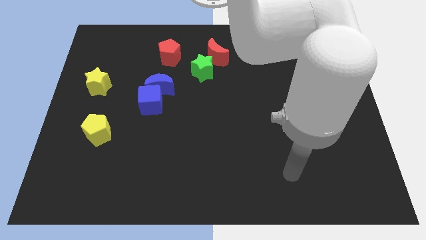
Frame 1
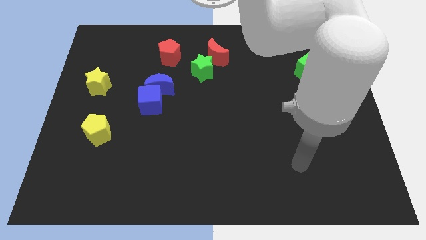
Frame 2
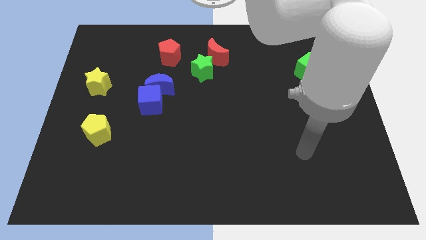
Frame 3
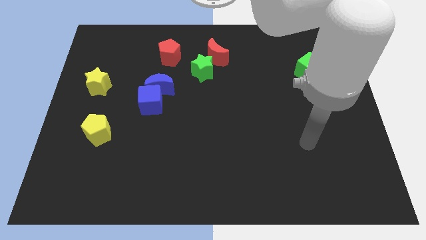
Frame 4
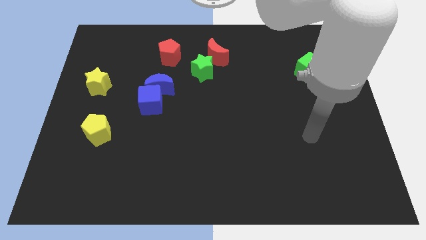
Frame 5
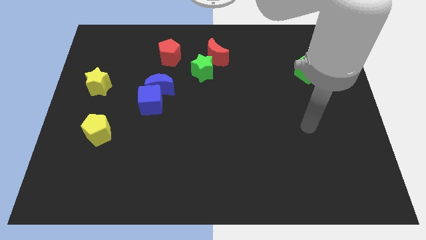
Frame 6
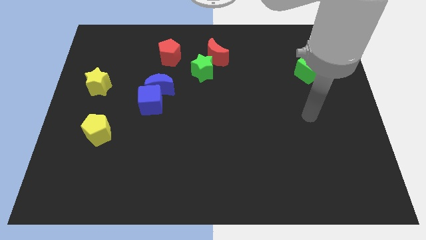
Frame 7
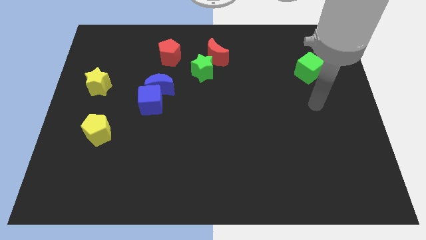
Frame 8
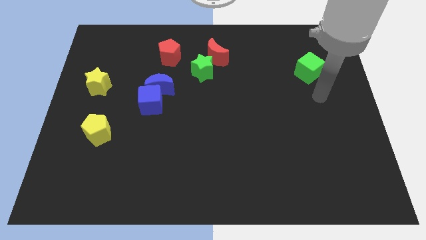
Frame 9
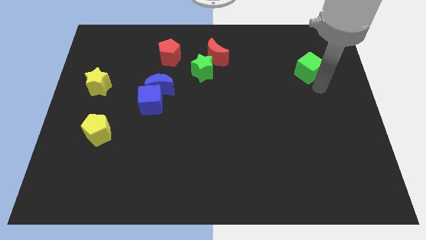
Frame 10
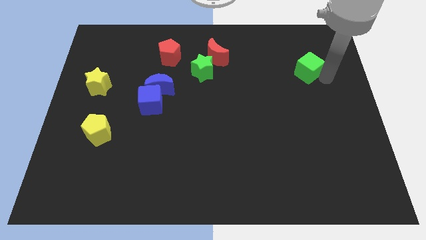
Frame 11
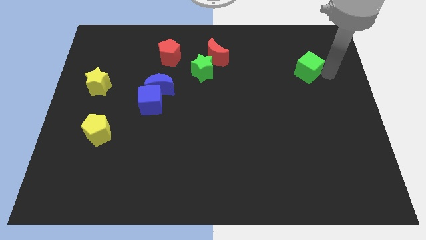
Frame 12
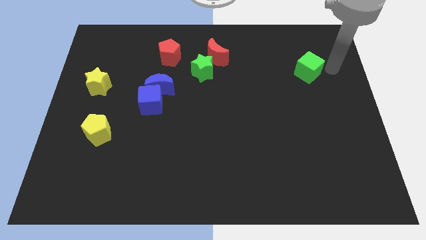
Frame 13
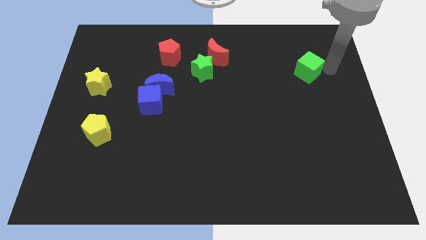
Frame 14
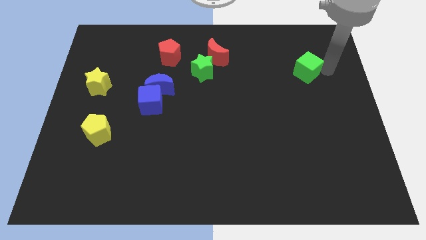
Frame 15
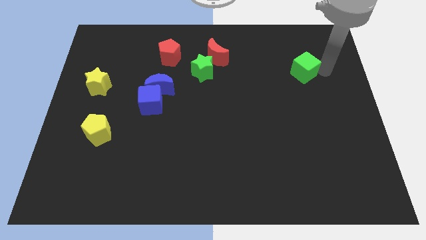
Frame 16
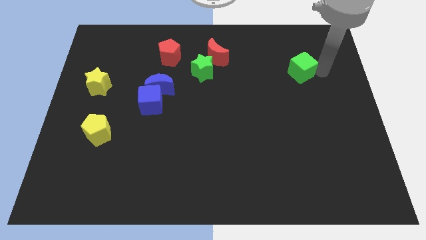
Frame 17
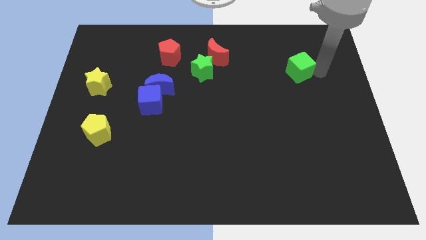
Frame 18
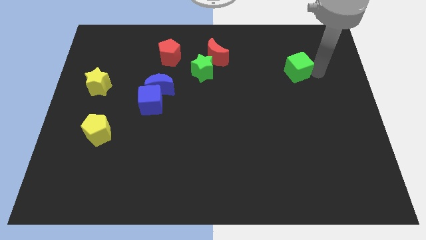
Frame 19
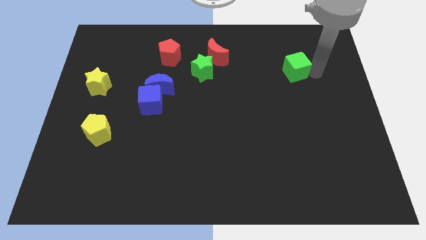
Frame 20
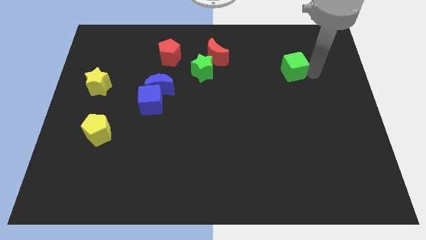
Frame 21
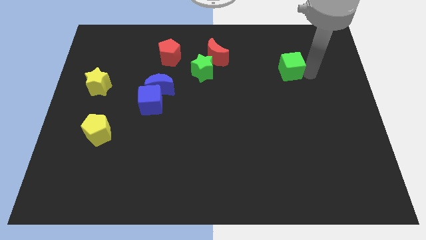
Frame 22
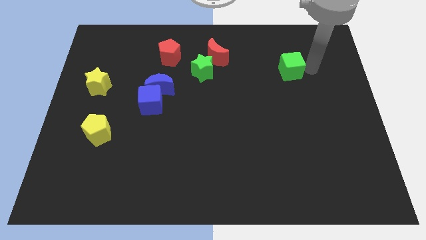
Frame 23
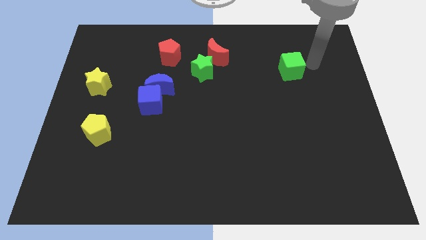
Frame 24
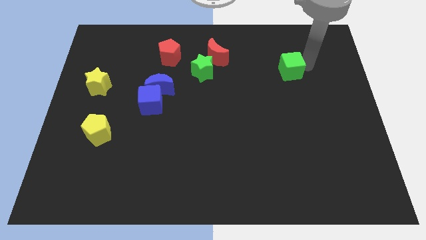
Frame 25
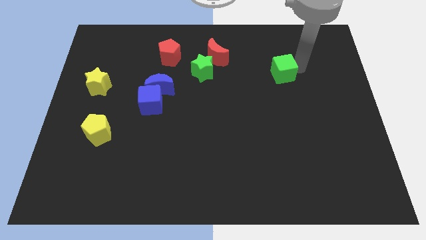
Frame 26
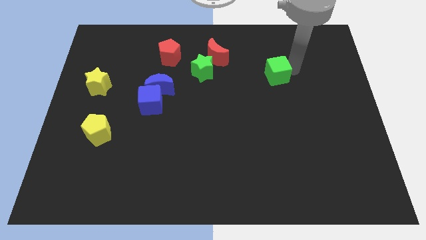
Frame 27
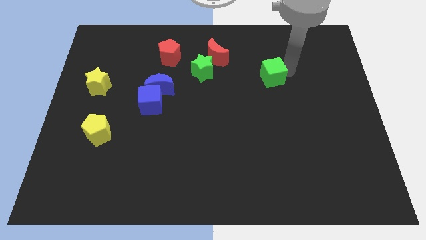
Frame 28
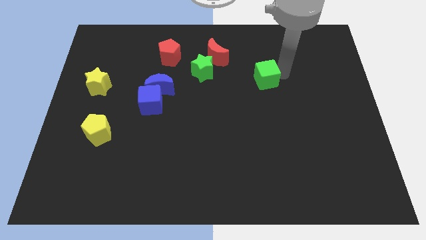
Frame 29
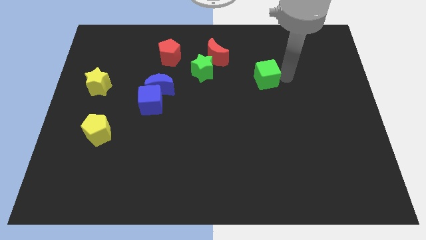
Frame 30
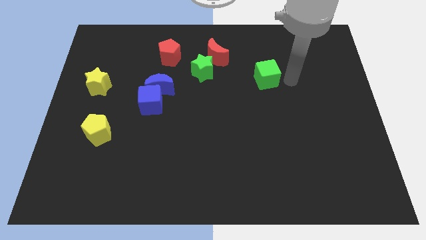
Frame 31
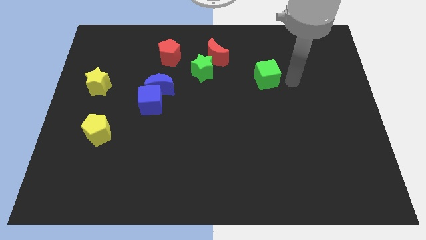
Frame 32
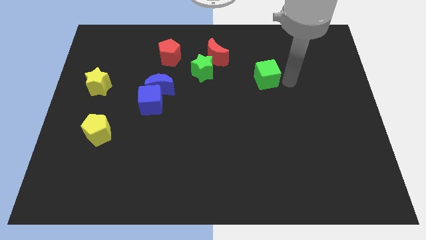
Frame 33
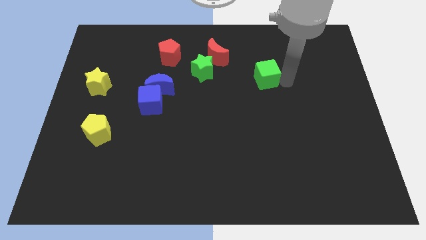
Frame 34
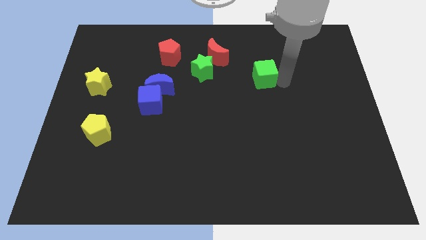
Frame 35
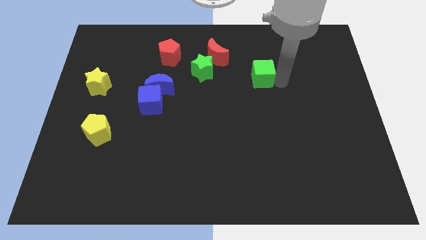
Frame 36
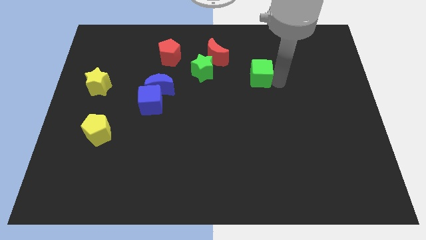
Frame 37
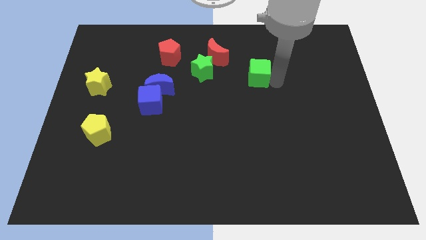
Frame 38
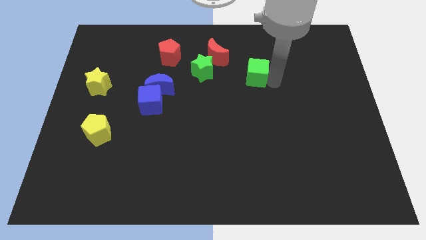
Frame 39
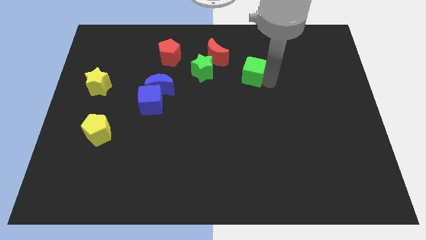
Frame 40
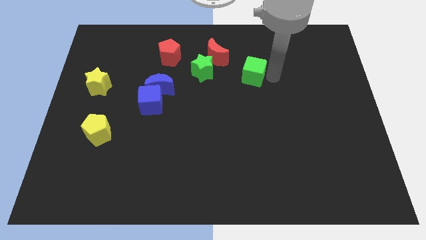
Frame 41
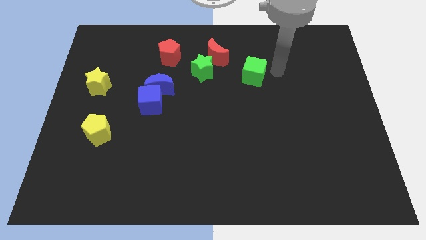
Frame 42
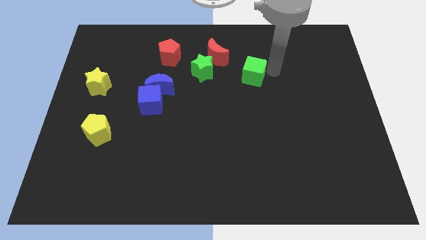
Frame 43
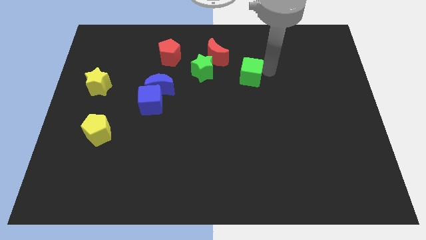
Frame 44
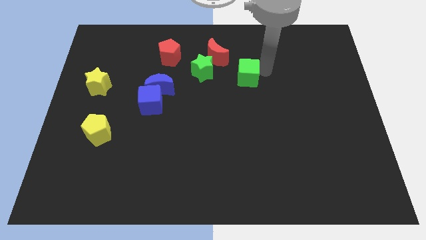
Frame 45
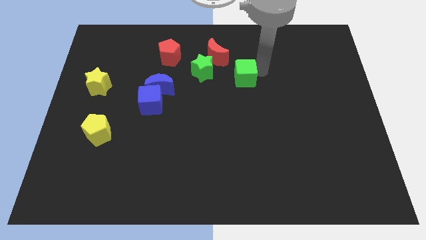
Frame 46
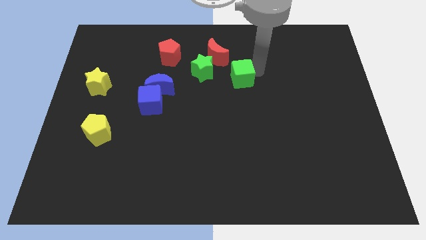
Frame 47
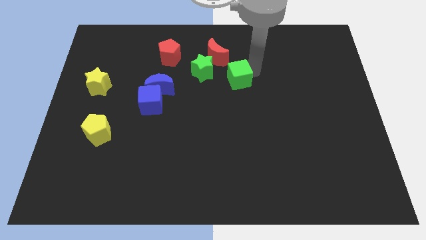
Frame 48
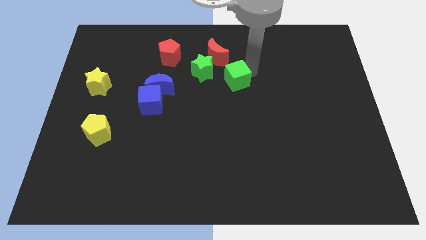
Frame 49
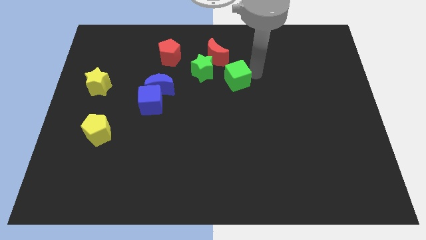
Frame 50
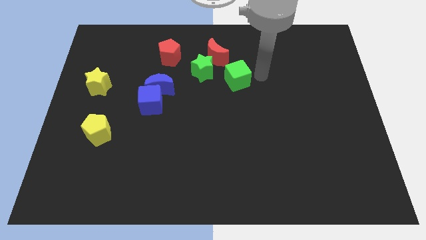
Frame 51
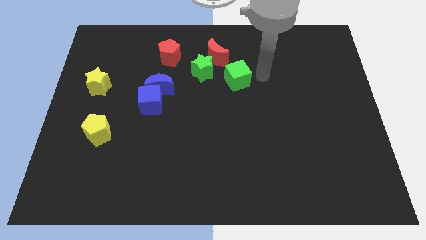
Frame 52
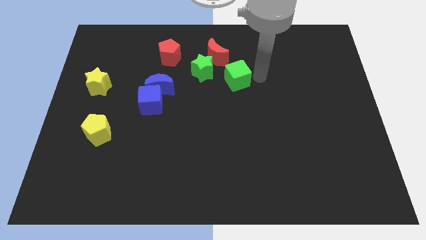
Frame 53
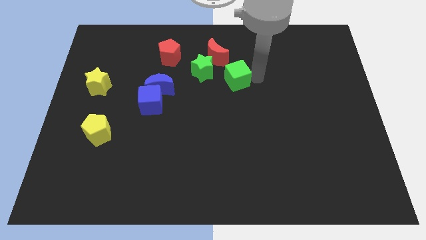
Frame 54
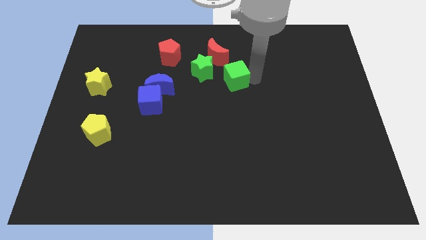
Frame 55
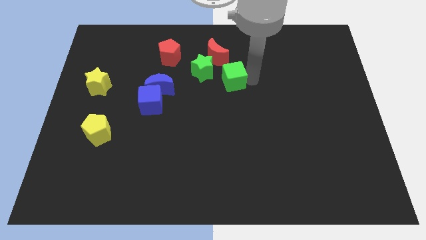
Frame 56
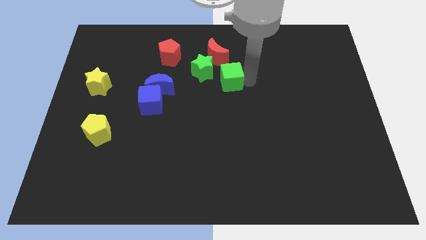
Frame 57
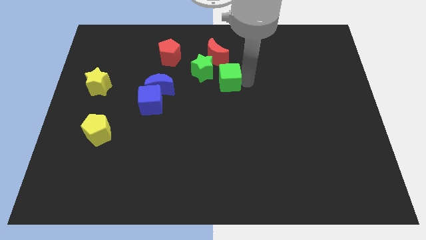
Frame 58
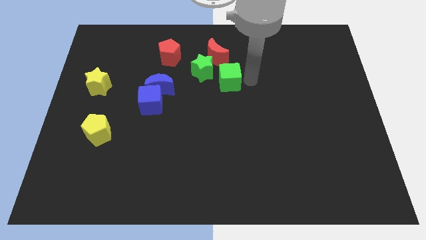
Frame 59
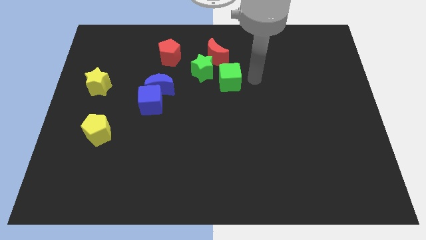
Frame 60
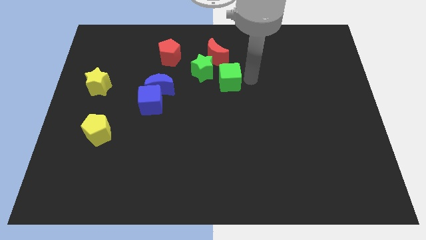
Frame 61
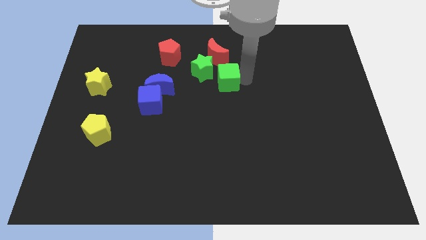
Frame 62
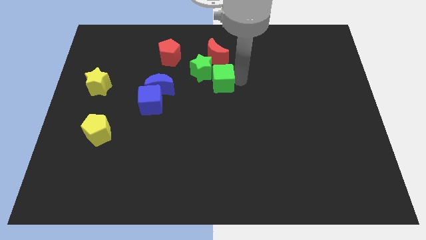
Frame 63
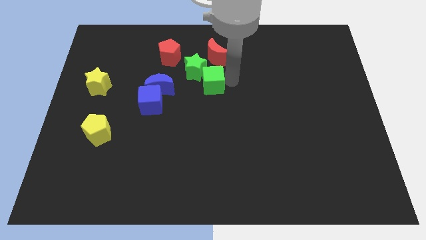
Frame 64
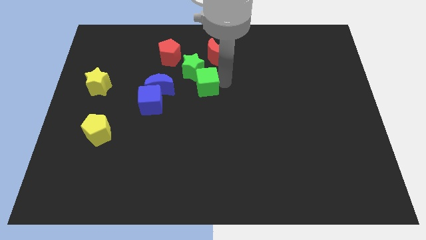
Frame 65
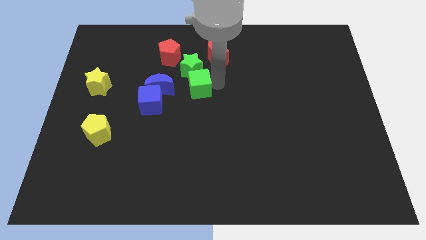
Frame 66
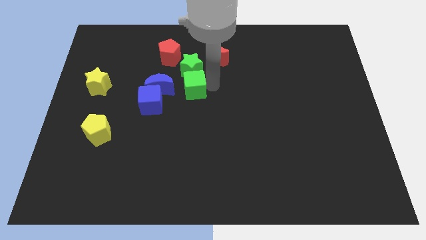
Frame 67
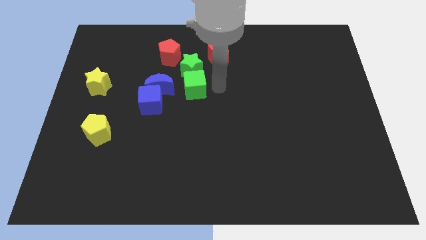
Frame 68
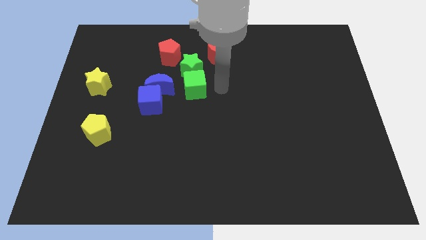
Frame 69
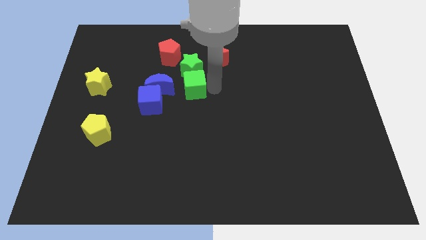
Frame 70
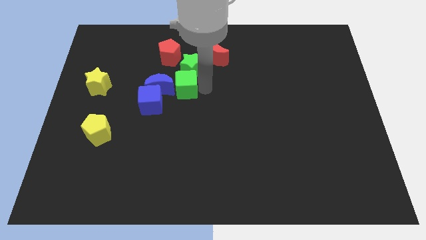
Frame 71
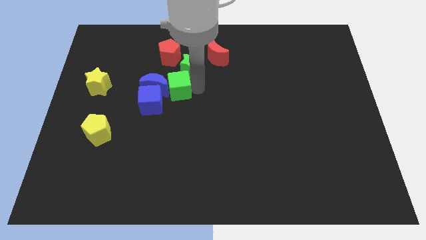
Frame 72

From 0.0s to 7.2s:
push the green cube next to the blue moon

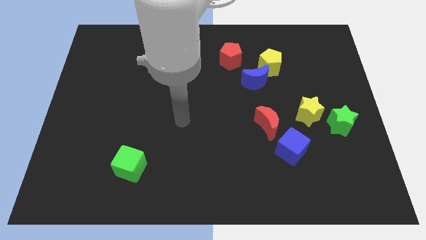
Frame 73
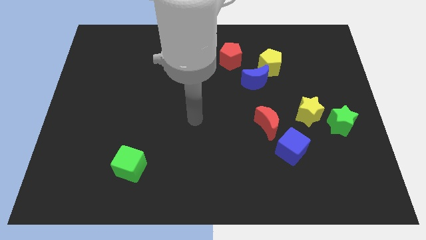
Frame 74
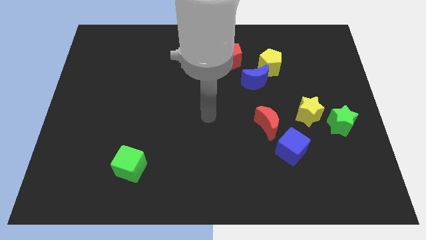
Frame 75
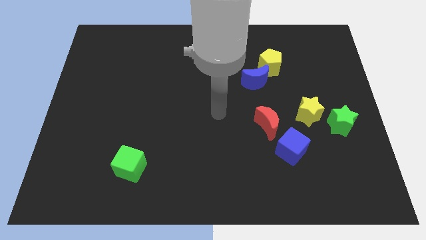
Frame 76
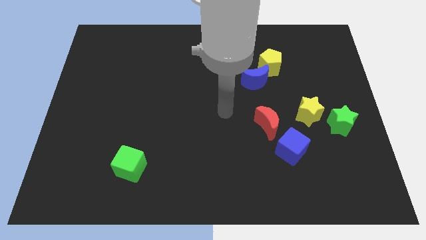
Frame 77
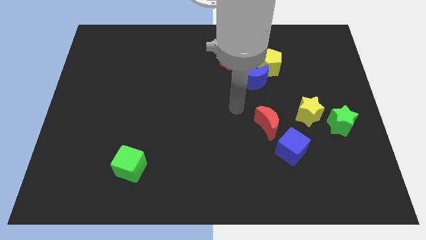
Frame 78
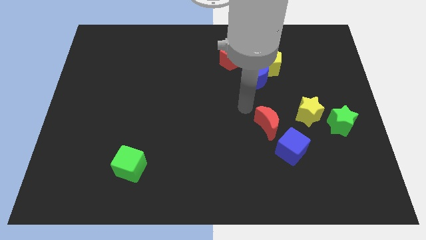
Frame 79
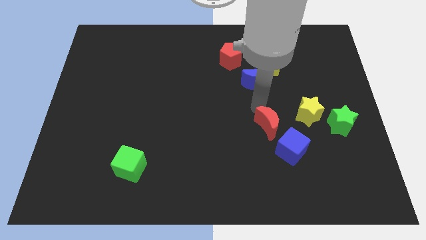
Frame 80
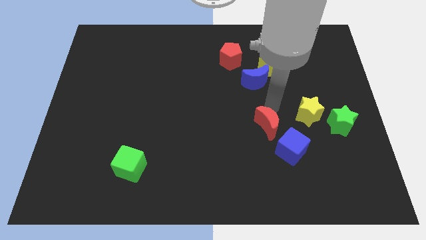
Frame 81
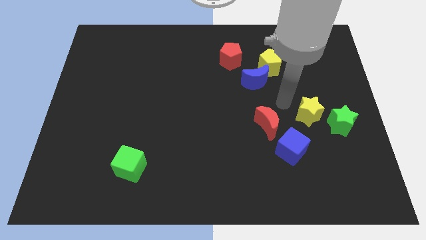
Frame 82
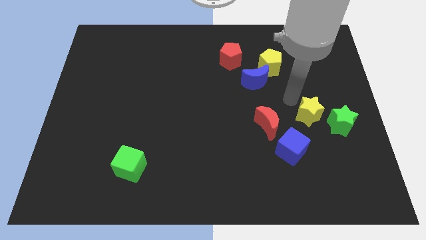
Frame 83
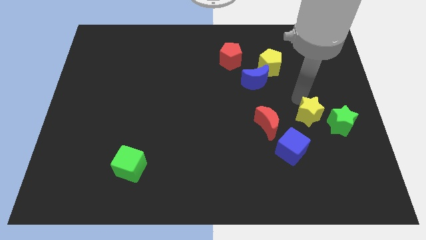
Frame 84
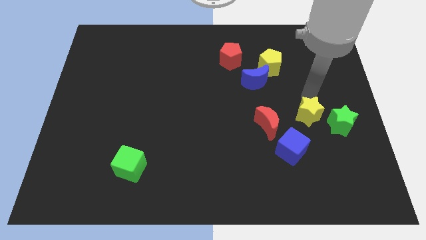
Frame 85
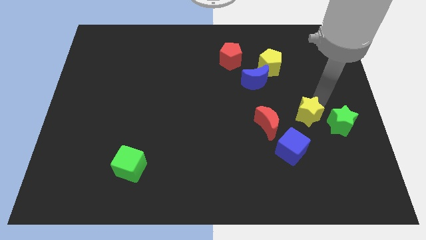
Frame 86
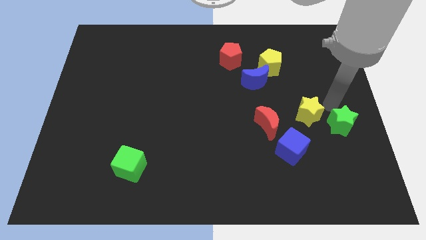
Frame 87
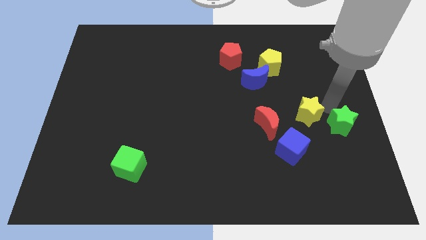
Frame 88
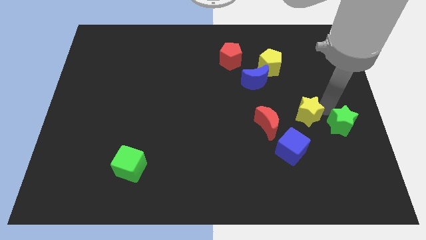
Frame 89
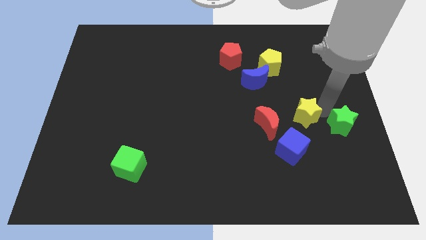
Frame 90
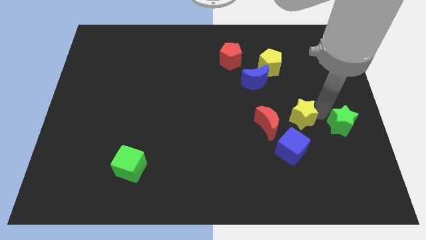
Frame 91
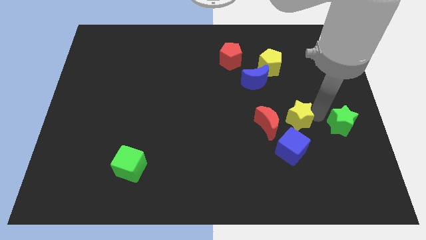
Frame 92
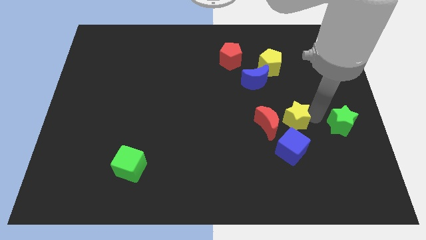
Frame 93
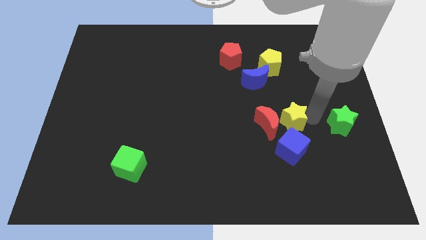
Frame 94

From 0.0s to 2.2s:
slide the yellow star towards the red moon
